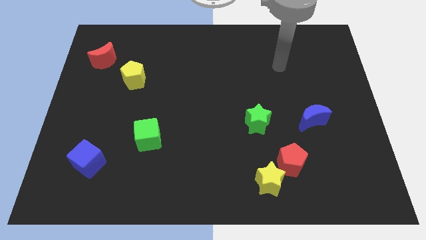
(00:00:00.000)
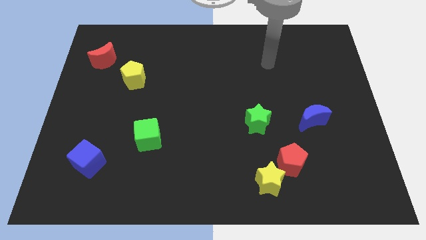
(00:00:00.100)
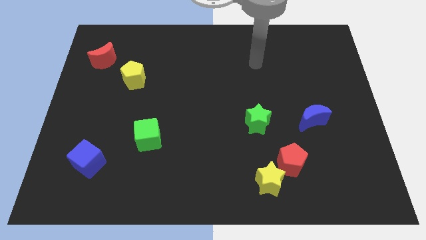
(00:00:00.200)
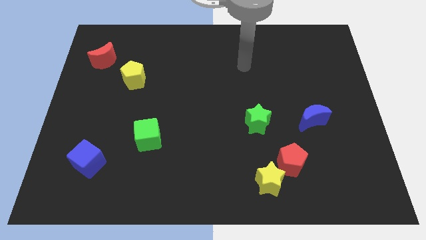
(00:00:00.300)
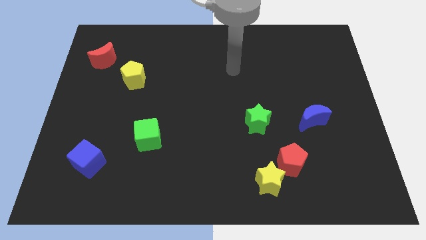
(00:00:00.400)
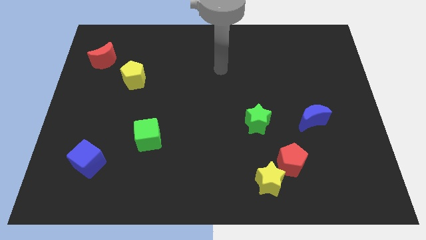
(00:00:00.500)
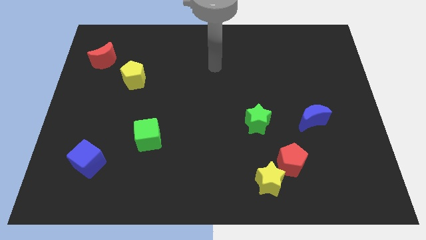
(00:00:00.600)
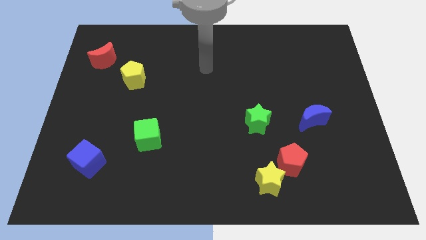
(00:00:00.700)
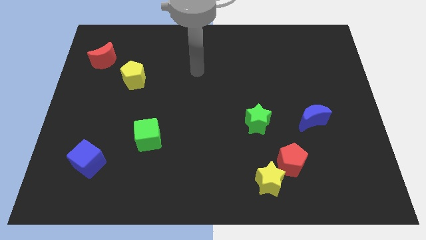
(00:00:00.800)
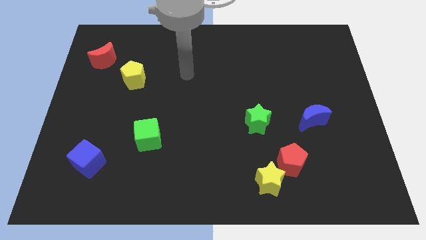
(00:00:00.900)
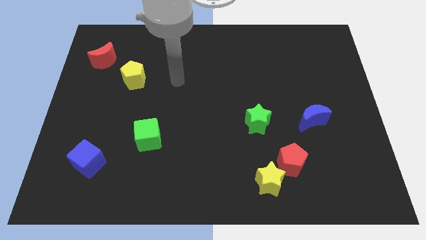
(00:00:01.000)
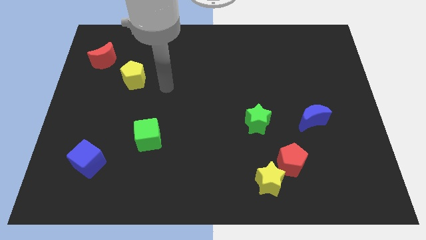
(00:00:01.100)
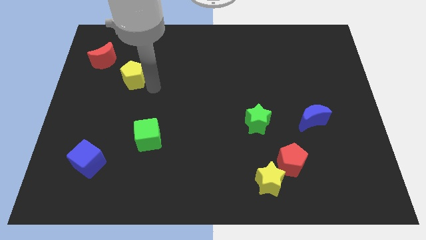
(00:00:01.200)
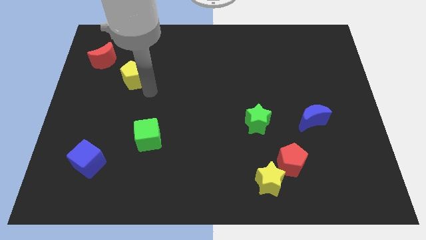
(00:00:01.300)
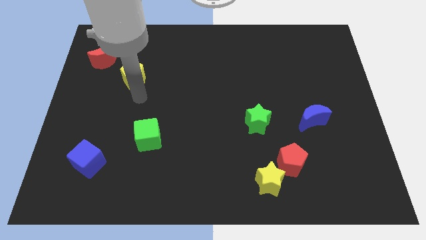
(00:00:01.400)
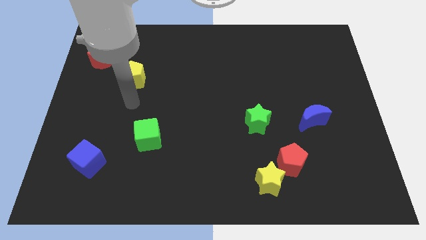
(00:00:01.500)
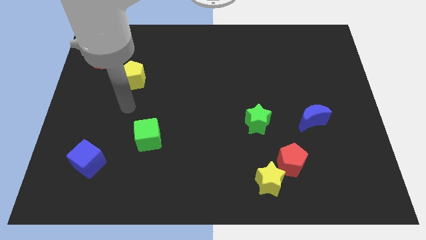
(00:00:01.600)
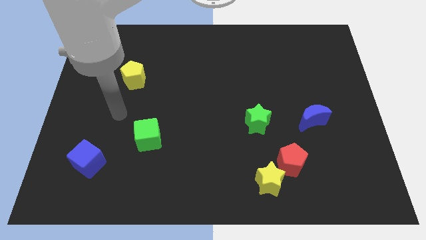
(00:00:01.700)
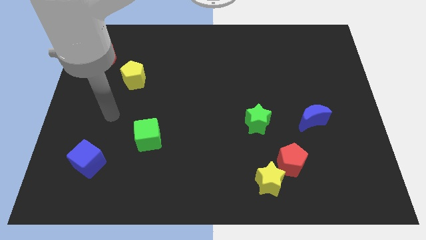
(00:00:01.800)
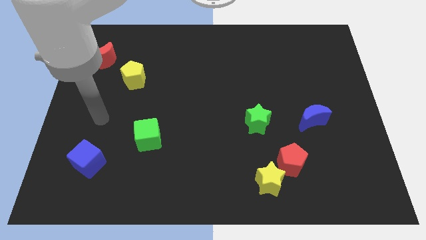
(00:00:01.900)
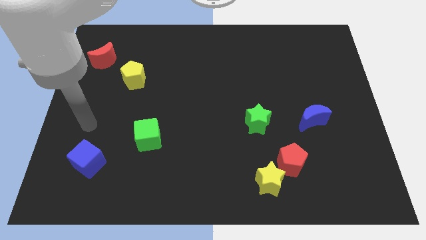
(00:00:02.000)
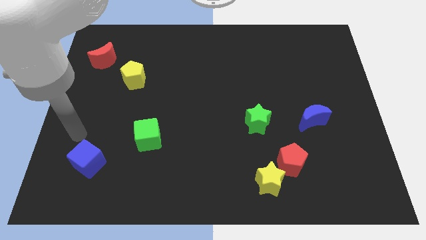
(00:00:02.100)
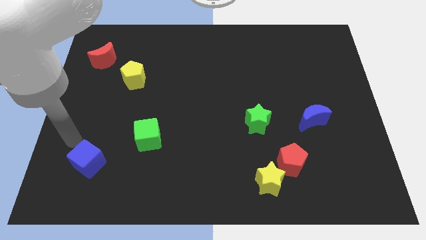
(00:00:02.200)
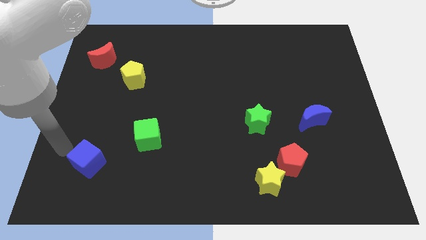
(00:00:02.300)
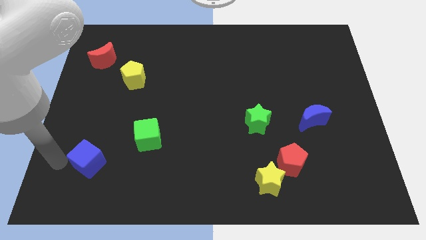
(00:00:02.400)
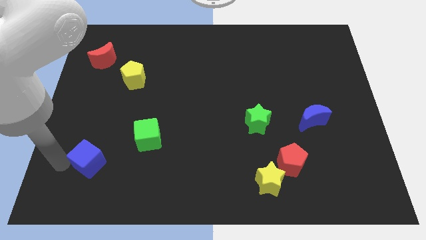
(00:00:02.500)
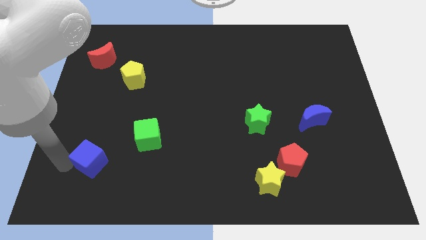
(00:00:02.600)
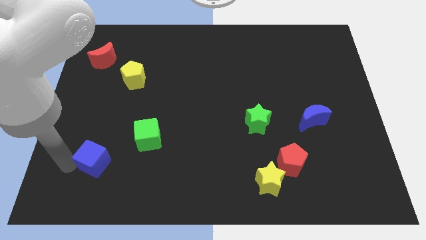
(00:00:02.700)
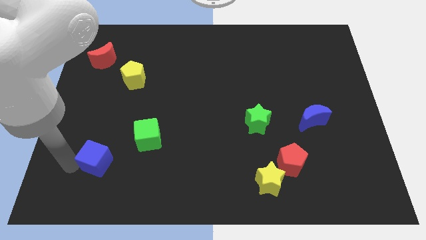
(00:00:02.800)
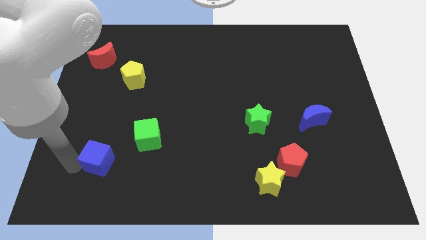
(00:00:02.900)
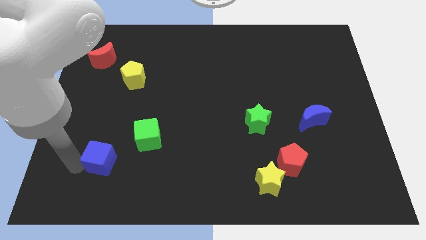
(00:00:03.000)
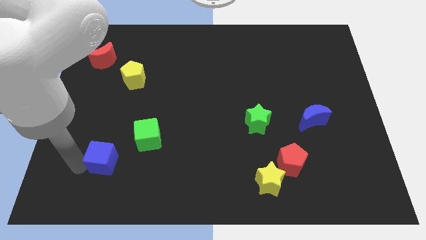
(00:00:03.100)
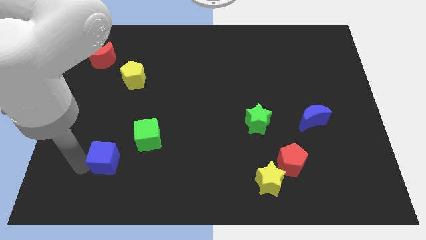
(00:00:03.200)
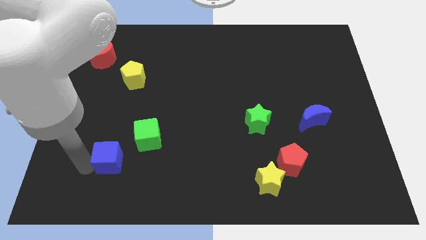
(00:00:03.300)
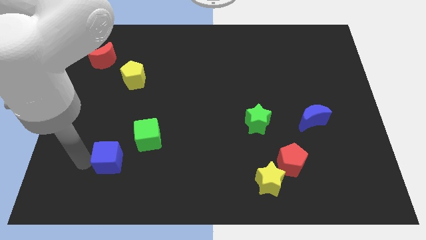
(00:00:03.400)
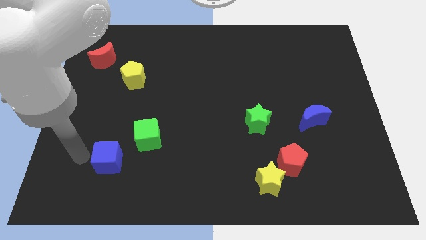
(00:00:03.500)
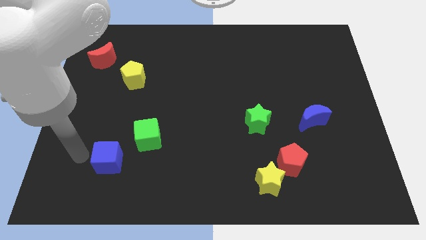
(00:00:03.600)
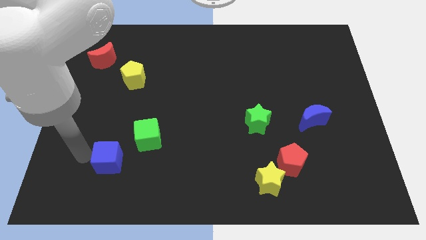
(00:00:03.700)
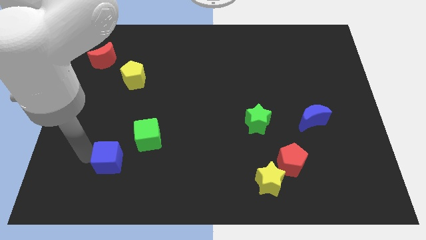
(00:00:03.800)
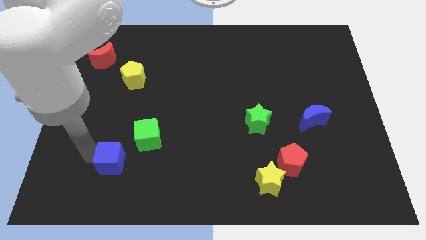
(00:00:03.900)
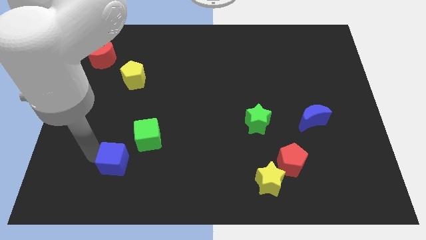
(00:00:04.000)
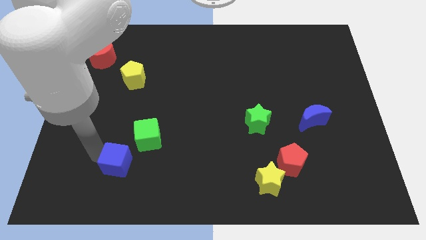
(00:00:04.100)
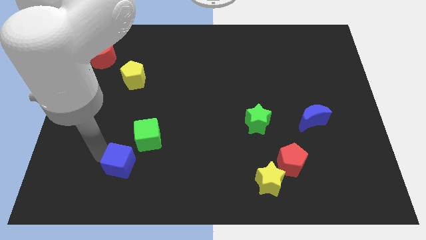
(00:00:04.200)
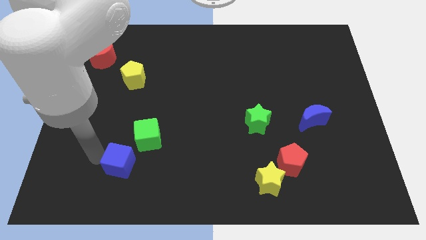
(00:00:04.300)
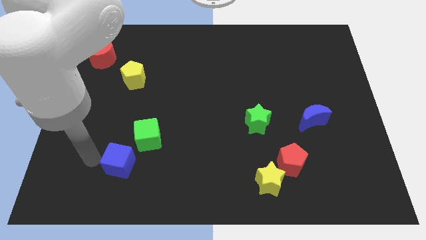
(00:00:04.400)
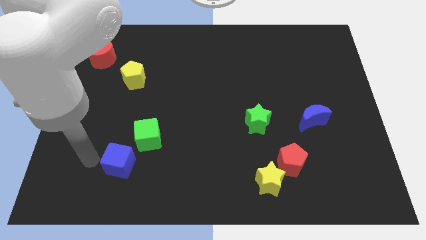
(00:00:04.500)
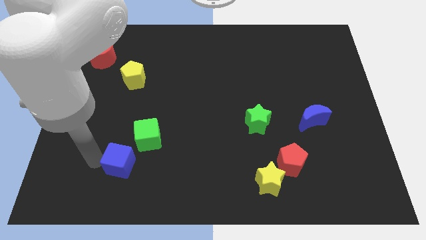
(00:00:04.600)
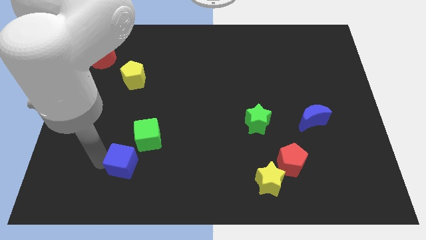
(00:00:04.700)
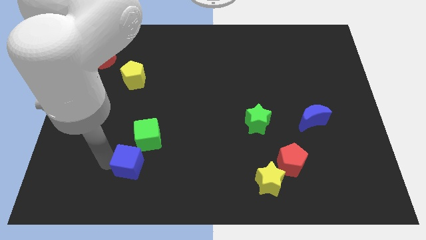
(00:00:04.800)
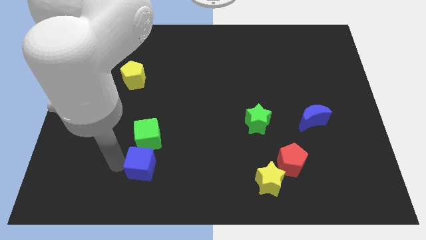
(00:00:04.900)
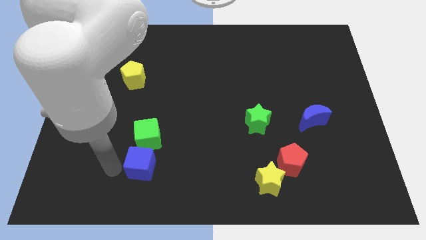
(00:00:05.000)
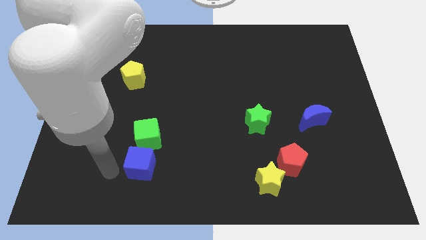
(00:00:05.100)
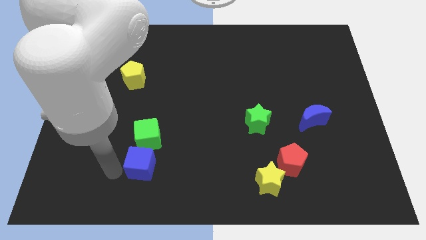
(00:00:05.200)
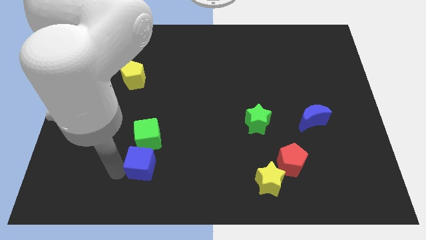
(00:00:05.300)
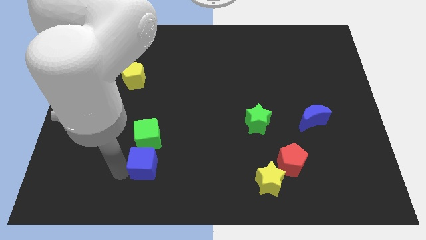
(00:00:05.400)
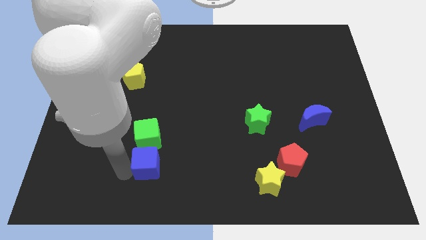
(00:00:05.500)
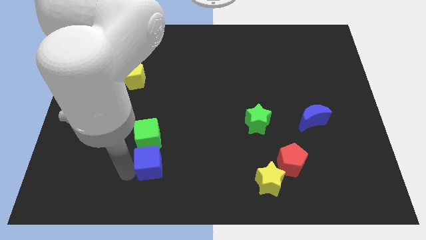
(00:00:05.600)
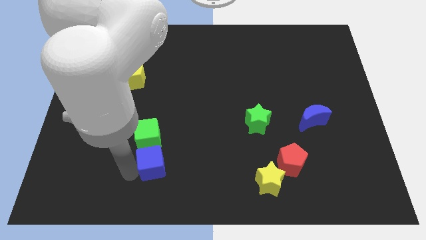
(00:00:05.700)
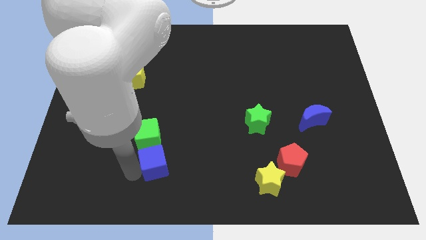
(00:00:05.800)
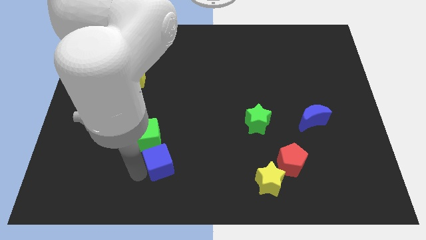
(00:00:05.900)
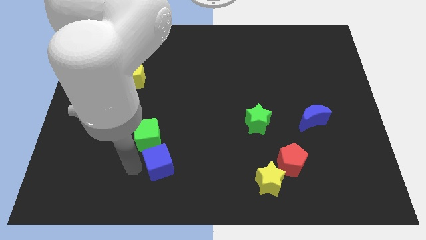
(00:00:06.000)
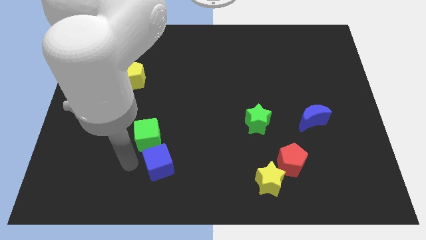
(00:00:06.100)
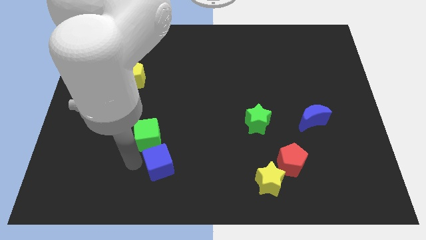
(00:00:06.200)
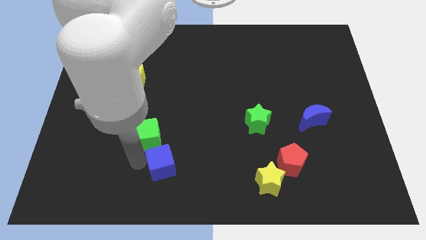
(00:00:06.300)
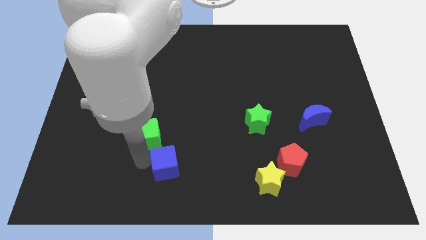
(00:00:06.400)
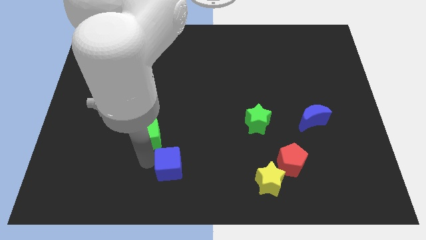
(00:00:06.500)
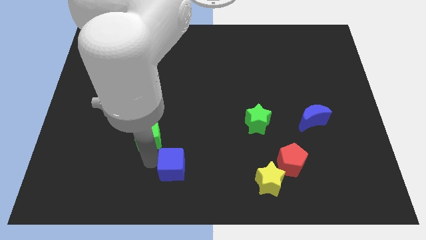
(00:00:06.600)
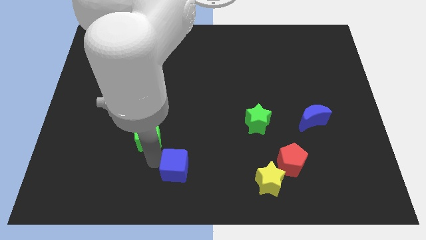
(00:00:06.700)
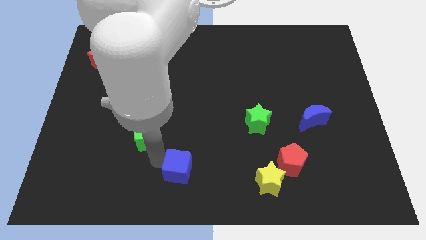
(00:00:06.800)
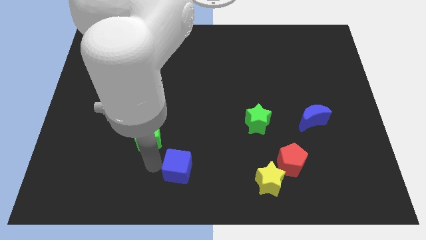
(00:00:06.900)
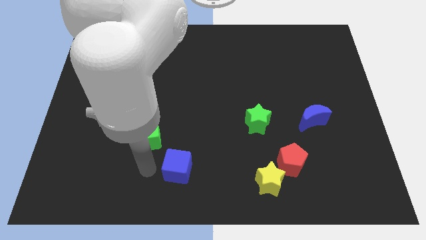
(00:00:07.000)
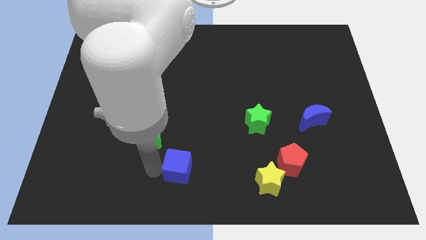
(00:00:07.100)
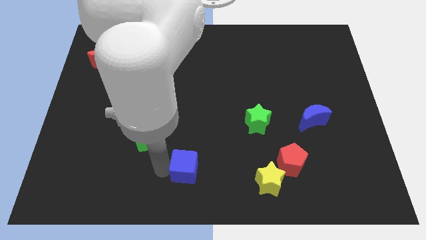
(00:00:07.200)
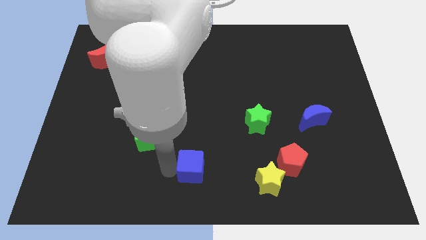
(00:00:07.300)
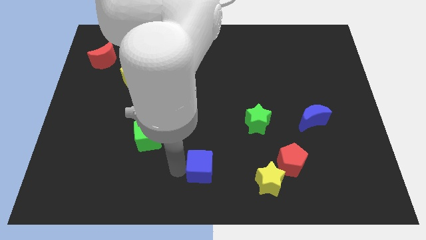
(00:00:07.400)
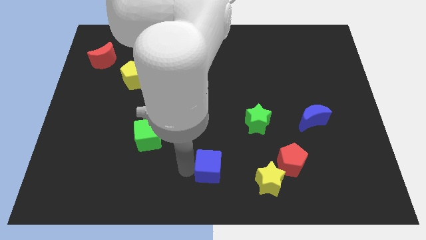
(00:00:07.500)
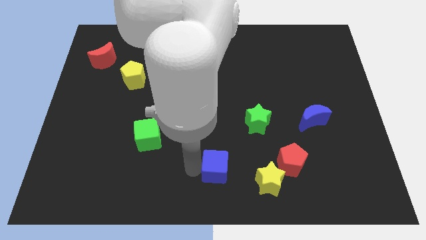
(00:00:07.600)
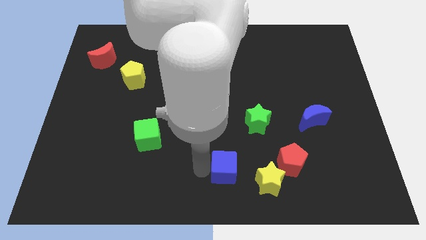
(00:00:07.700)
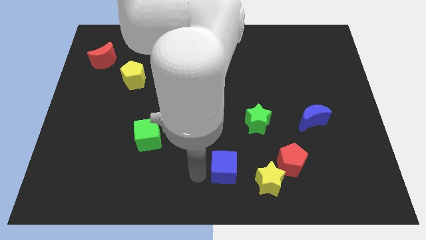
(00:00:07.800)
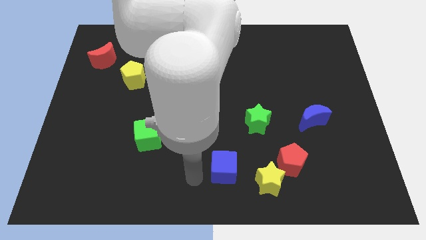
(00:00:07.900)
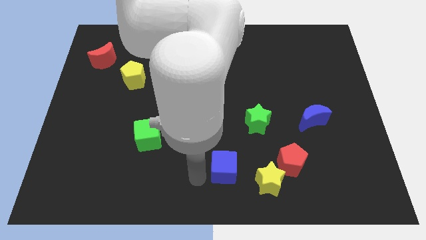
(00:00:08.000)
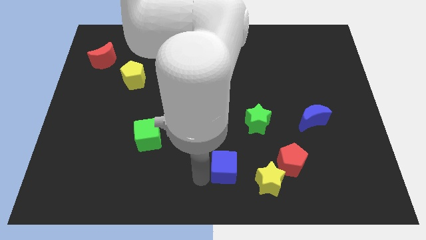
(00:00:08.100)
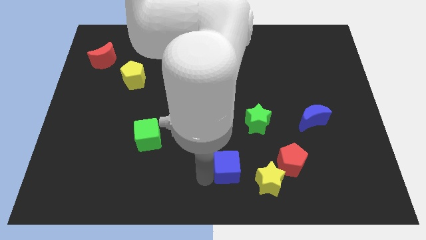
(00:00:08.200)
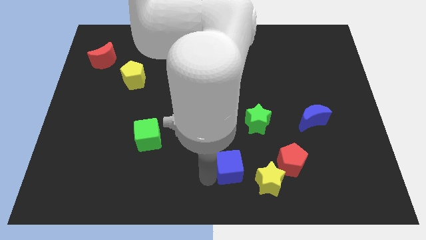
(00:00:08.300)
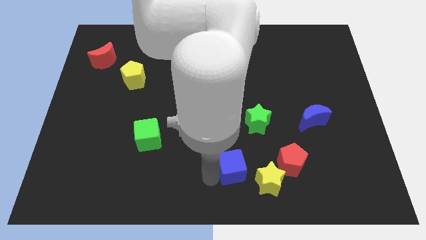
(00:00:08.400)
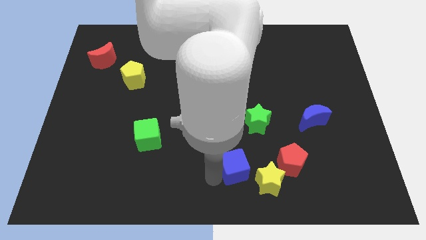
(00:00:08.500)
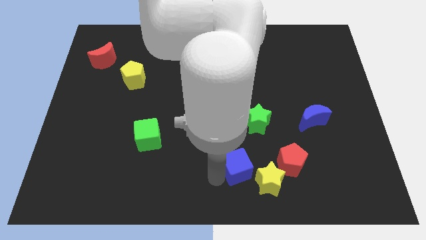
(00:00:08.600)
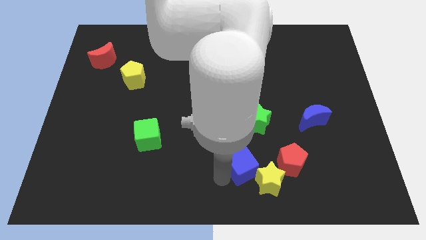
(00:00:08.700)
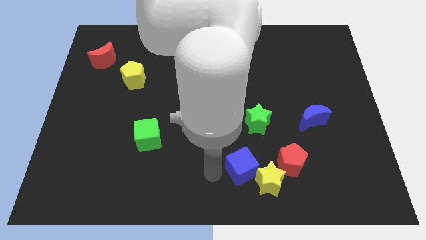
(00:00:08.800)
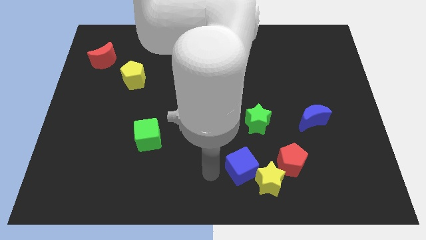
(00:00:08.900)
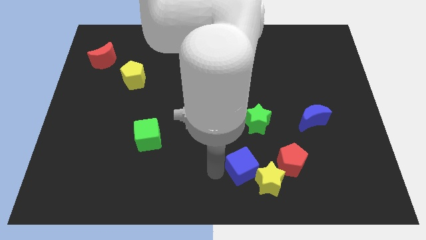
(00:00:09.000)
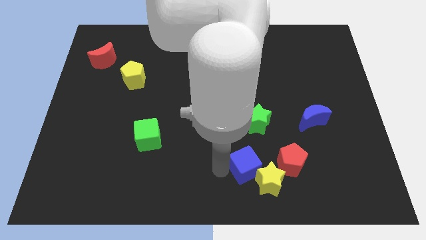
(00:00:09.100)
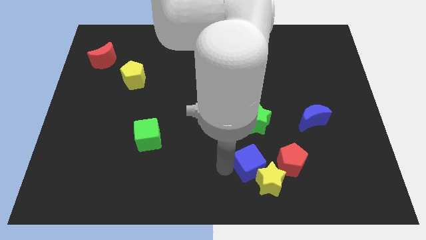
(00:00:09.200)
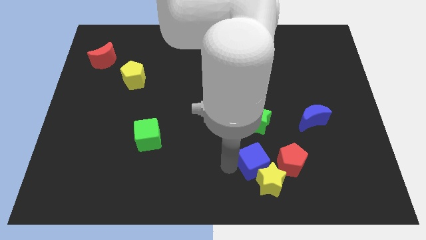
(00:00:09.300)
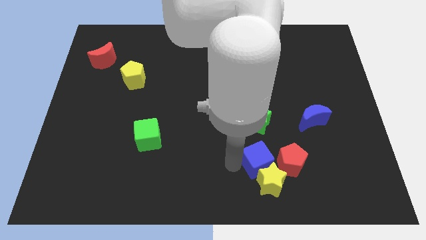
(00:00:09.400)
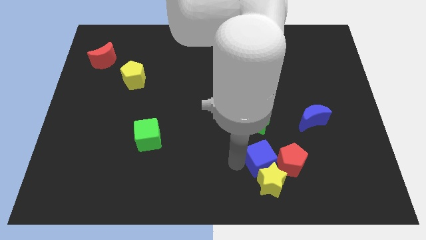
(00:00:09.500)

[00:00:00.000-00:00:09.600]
put the blue cube to the red pentagon
